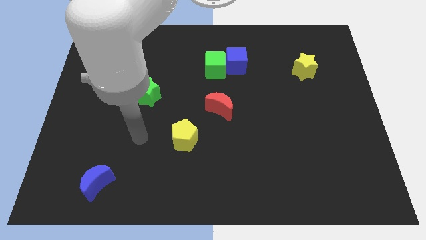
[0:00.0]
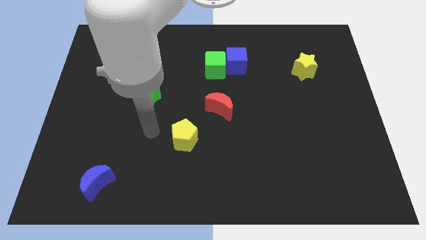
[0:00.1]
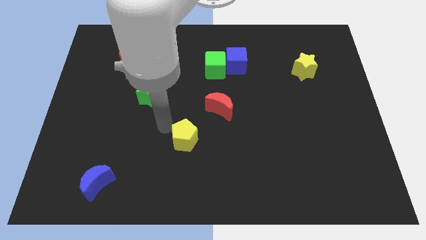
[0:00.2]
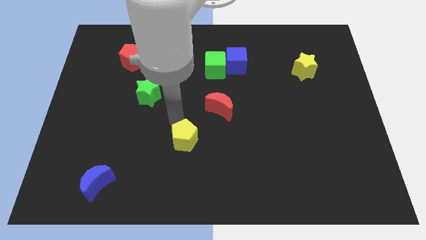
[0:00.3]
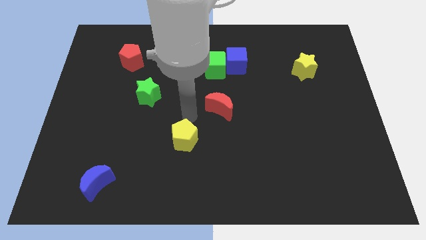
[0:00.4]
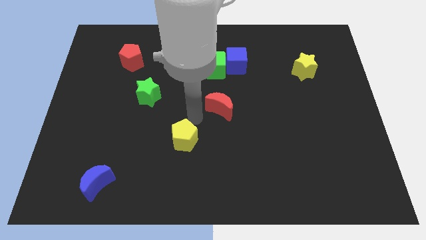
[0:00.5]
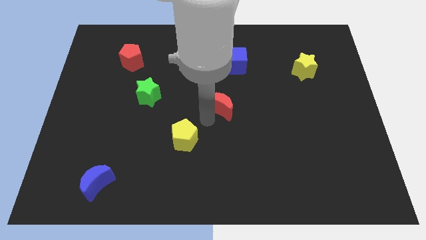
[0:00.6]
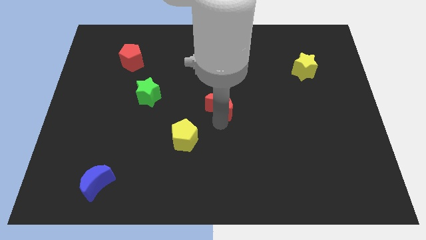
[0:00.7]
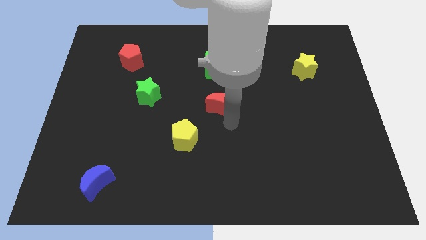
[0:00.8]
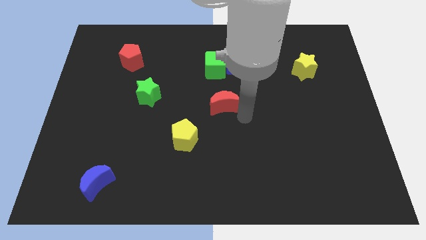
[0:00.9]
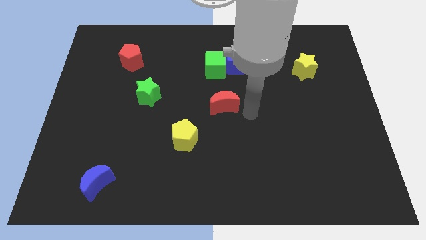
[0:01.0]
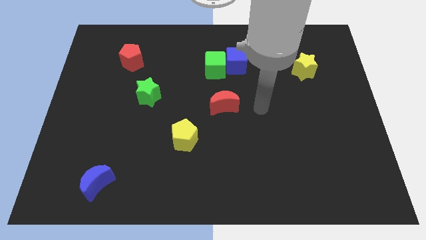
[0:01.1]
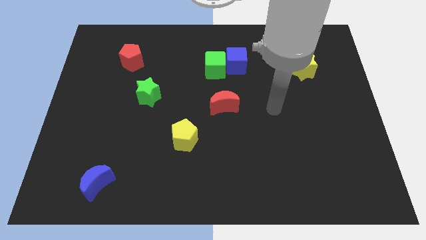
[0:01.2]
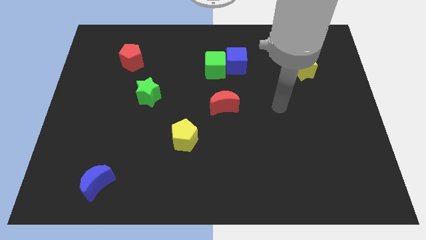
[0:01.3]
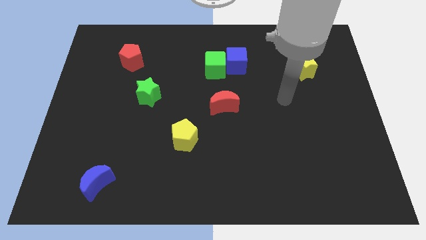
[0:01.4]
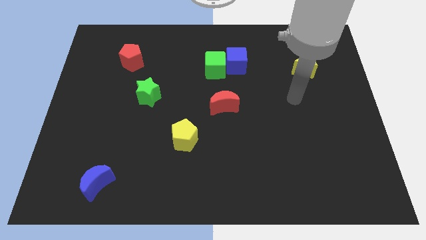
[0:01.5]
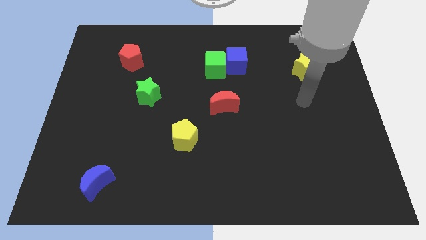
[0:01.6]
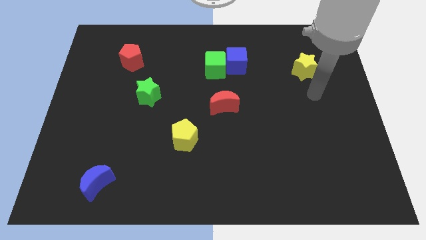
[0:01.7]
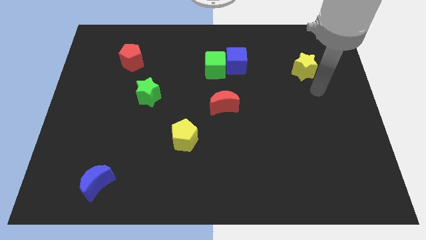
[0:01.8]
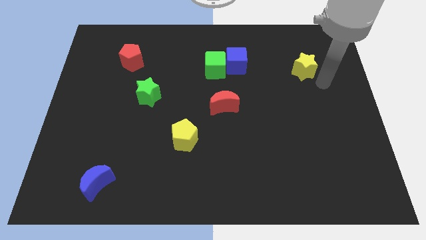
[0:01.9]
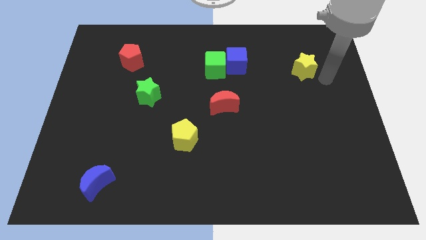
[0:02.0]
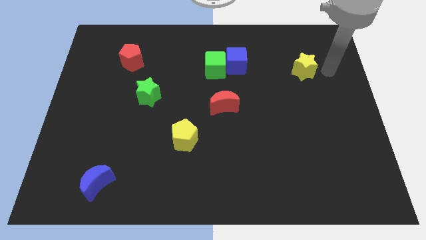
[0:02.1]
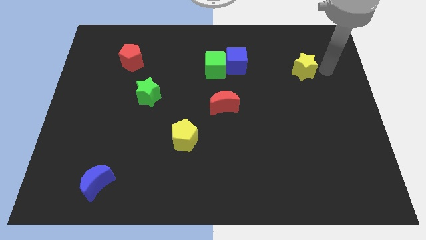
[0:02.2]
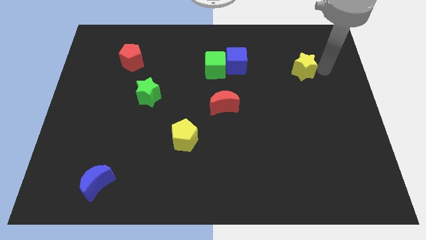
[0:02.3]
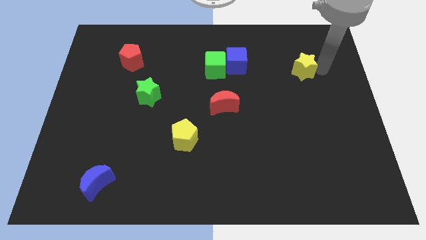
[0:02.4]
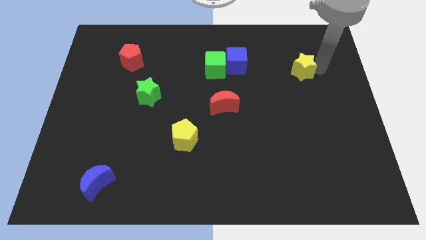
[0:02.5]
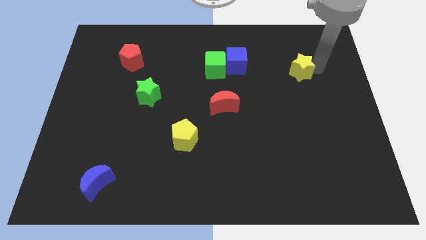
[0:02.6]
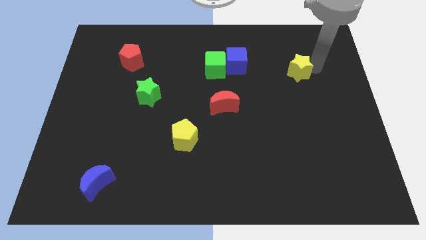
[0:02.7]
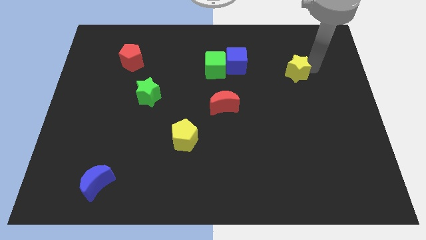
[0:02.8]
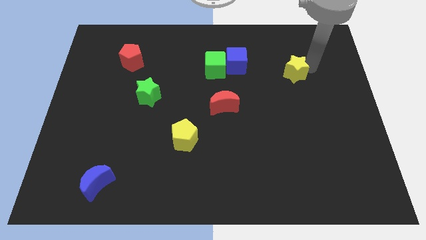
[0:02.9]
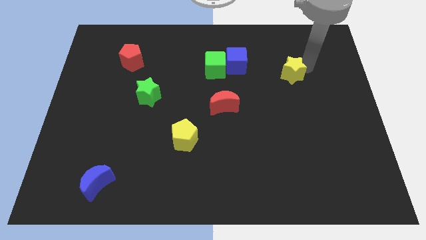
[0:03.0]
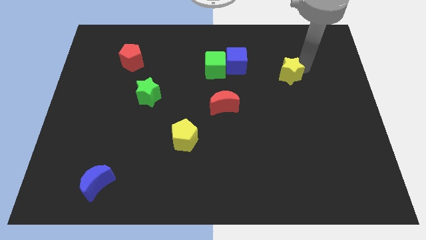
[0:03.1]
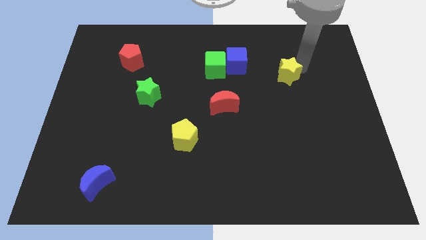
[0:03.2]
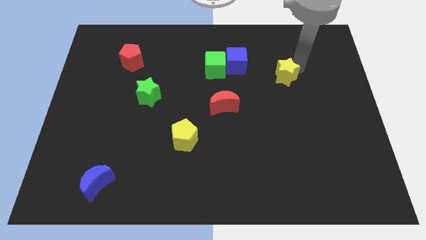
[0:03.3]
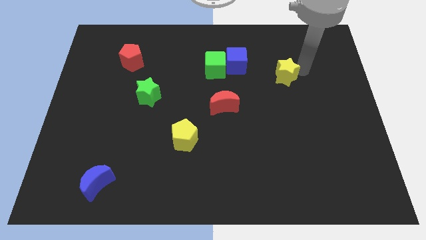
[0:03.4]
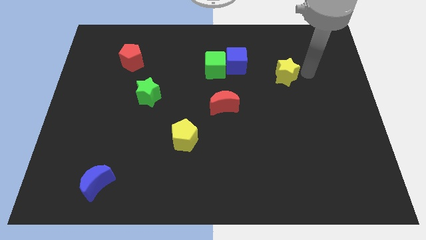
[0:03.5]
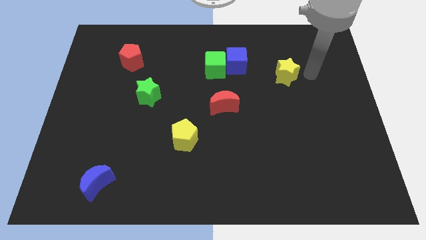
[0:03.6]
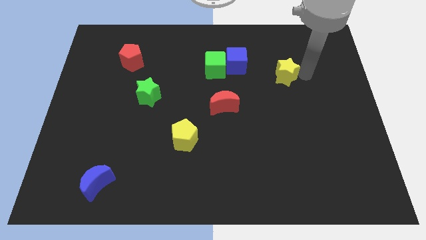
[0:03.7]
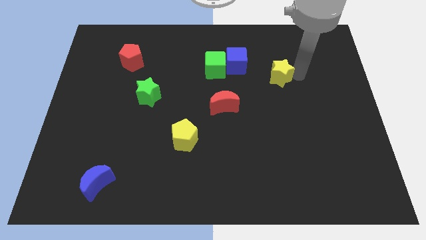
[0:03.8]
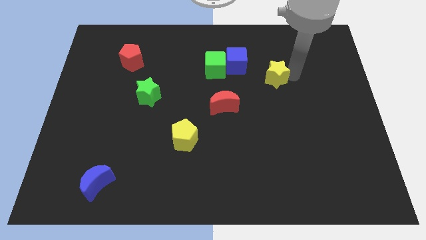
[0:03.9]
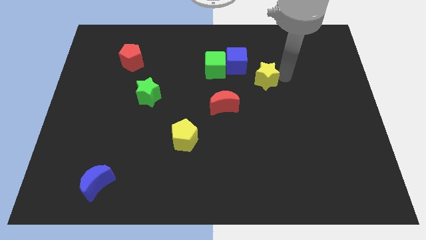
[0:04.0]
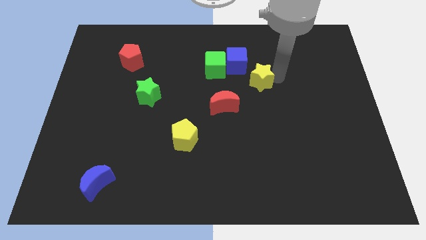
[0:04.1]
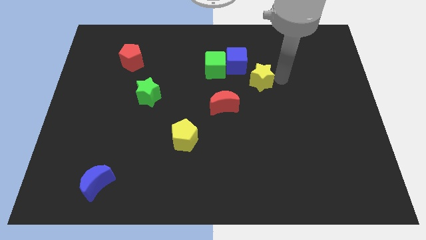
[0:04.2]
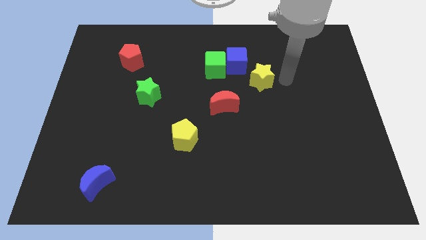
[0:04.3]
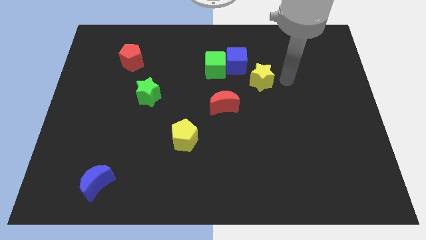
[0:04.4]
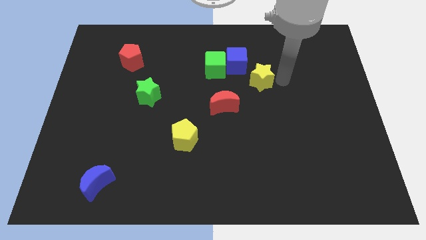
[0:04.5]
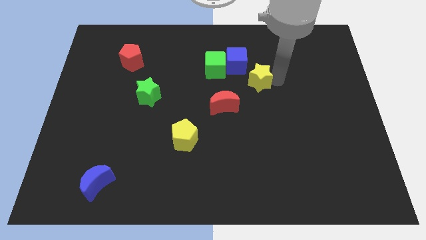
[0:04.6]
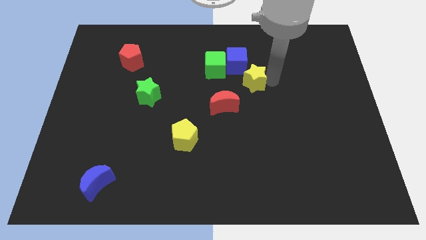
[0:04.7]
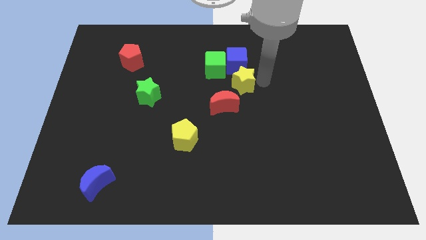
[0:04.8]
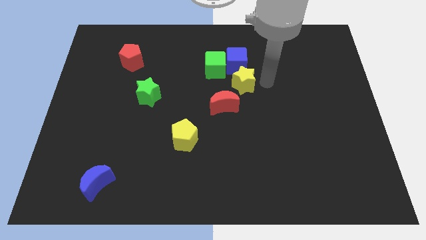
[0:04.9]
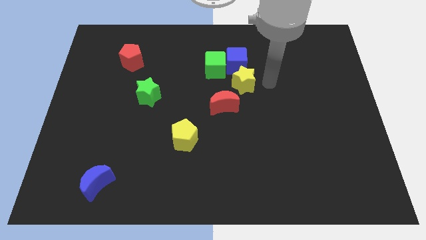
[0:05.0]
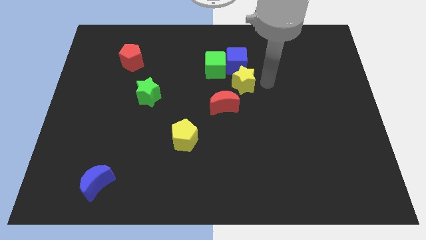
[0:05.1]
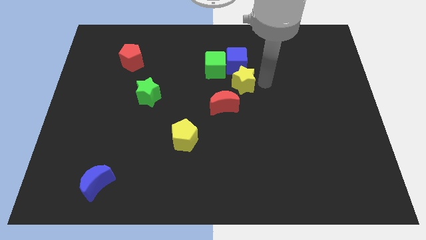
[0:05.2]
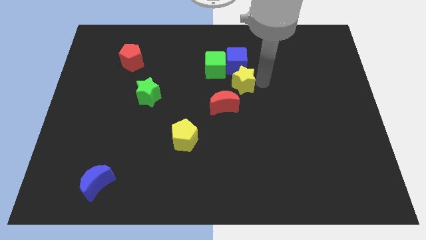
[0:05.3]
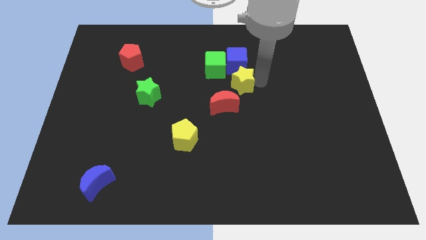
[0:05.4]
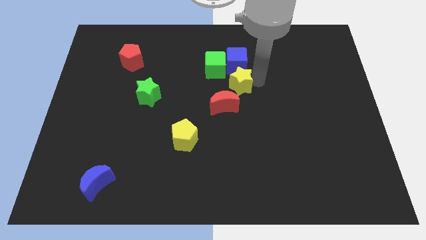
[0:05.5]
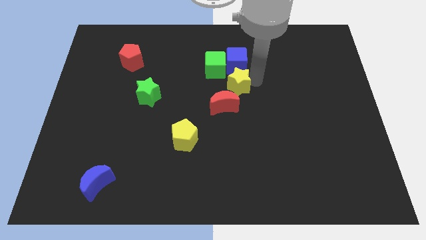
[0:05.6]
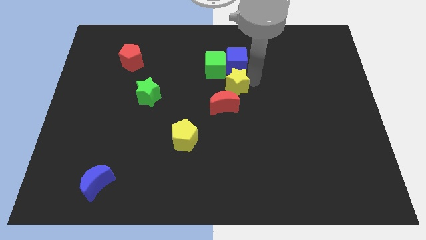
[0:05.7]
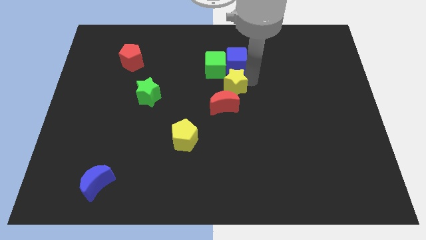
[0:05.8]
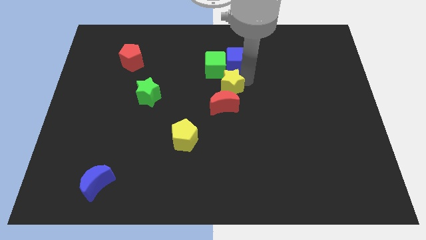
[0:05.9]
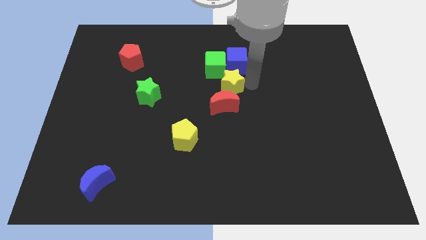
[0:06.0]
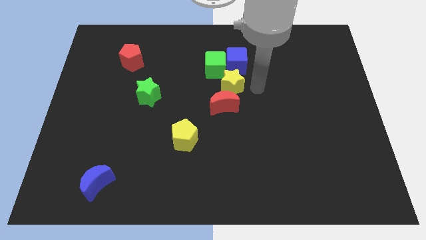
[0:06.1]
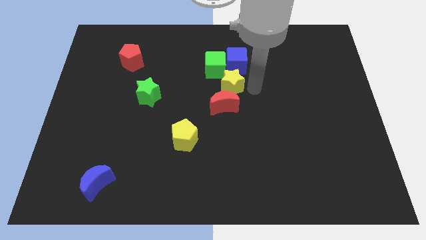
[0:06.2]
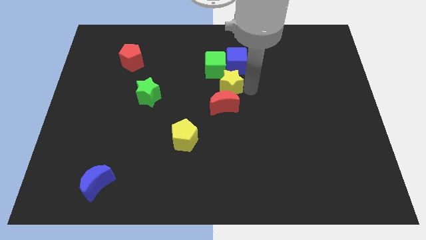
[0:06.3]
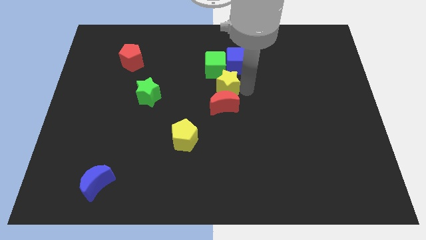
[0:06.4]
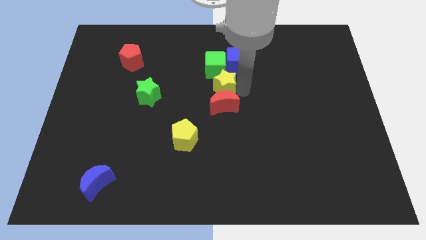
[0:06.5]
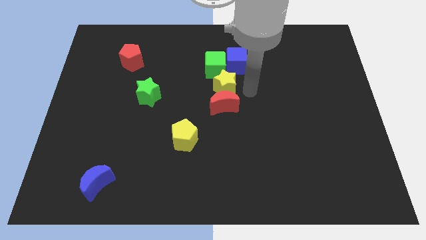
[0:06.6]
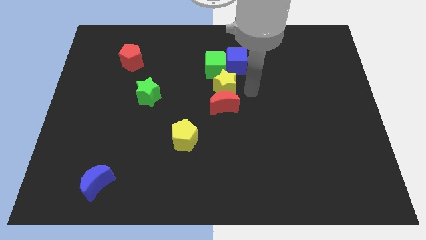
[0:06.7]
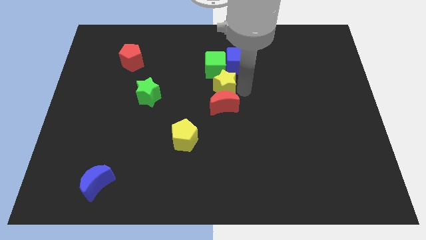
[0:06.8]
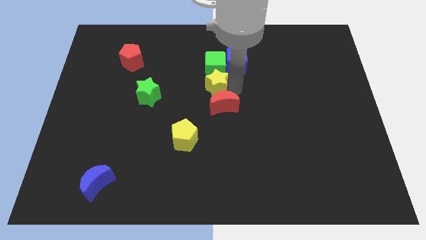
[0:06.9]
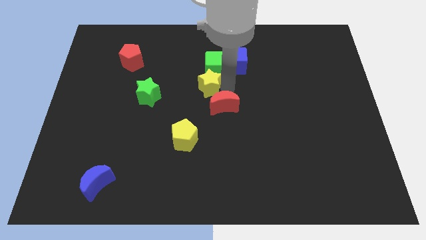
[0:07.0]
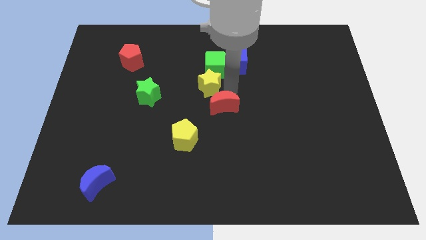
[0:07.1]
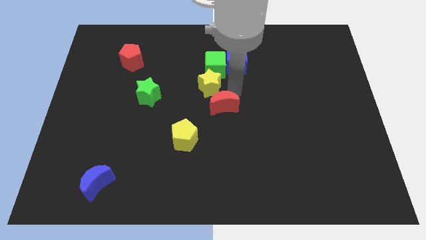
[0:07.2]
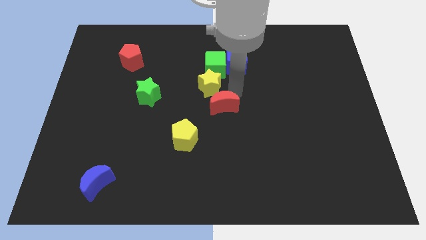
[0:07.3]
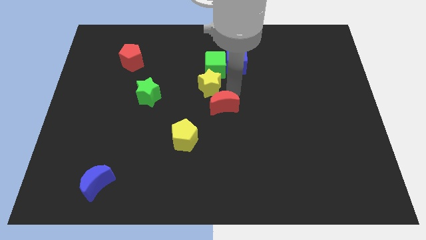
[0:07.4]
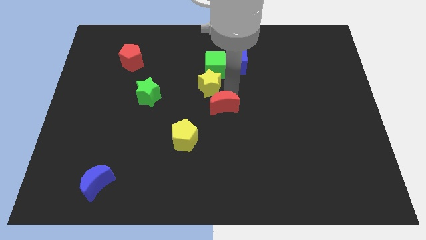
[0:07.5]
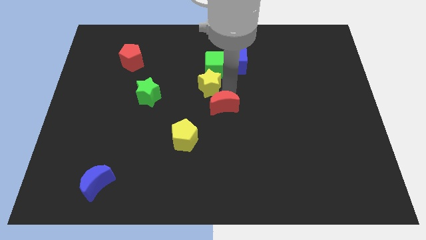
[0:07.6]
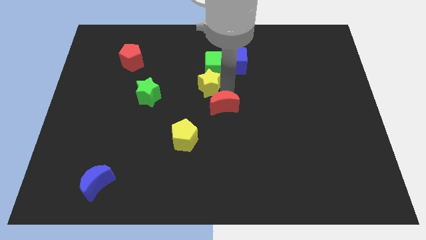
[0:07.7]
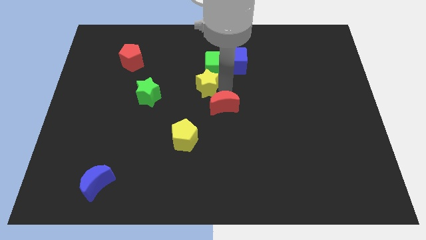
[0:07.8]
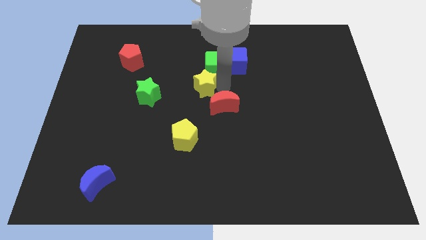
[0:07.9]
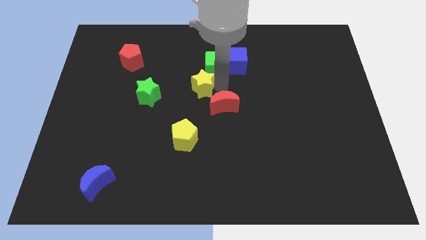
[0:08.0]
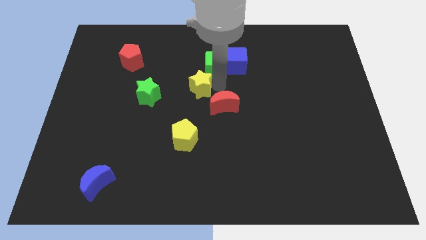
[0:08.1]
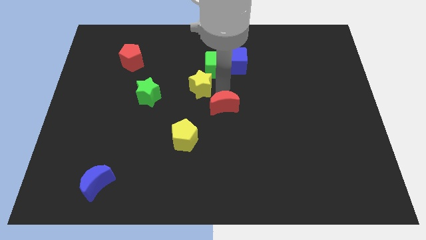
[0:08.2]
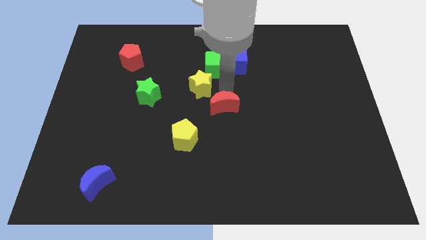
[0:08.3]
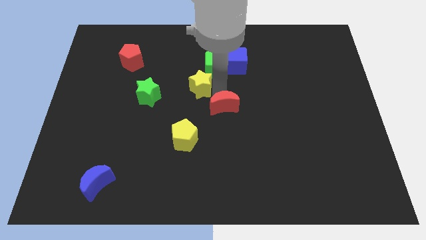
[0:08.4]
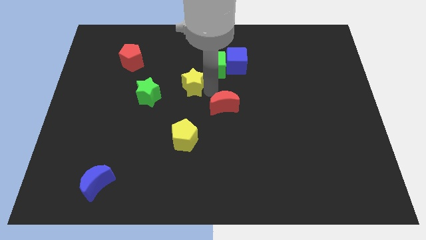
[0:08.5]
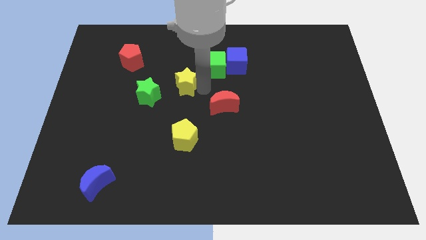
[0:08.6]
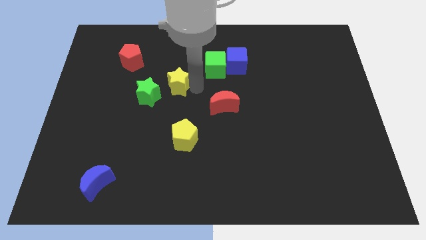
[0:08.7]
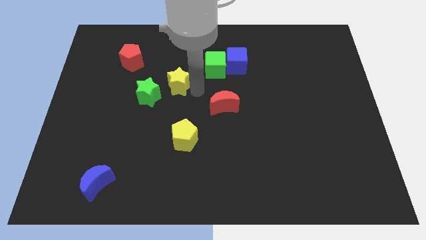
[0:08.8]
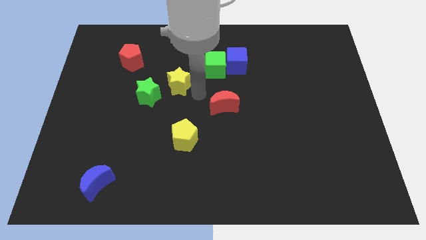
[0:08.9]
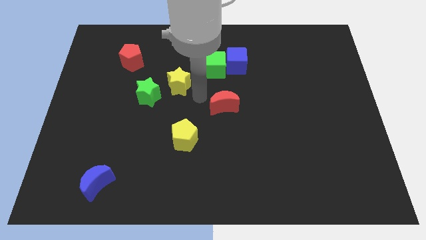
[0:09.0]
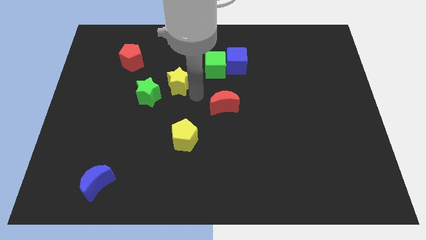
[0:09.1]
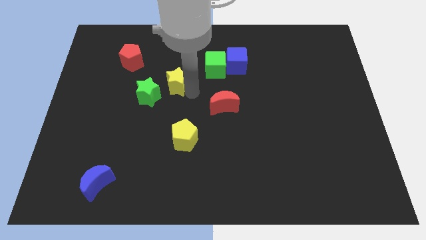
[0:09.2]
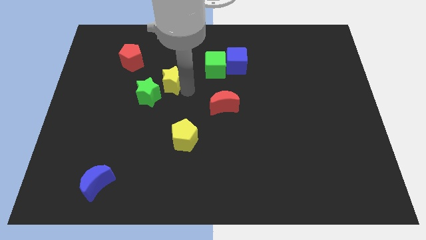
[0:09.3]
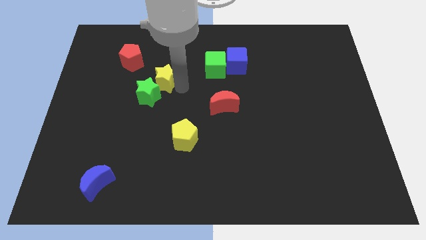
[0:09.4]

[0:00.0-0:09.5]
move the yellow star to the bottom right side of the red pentagon
